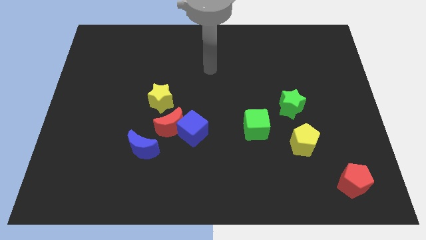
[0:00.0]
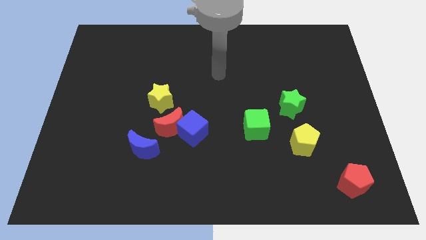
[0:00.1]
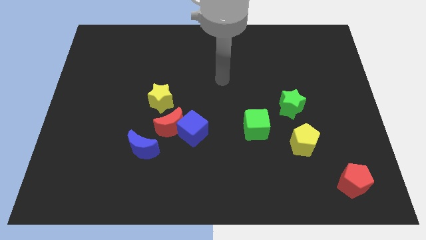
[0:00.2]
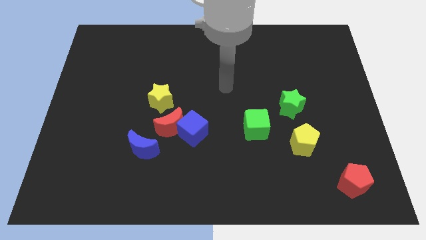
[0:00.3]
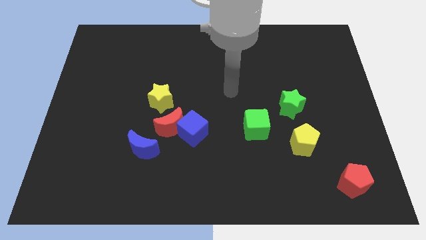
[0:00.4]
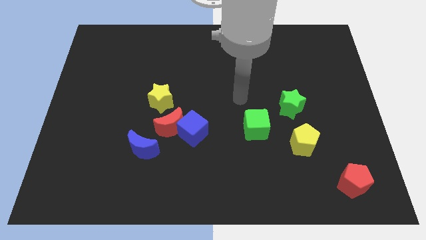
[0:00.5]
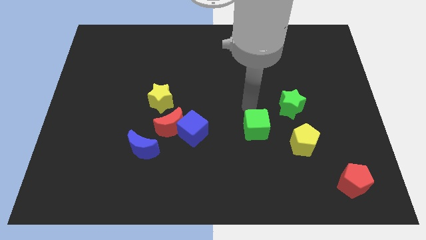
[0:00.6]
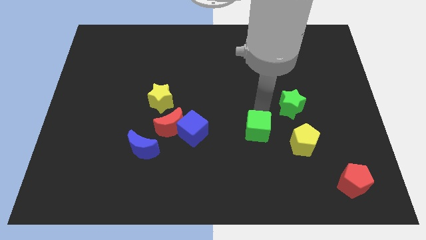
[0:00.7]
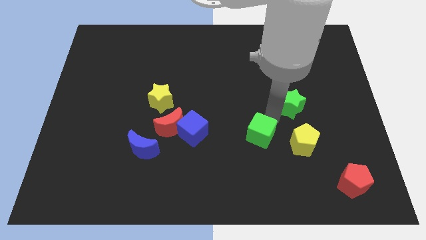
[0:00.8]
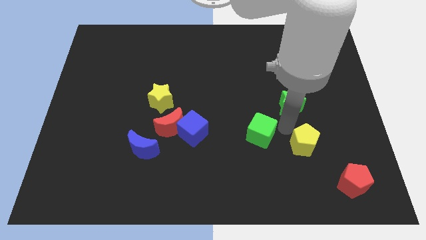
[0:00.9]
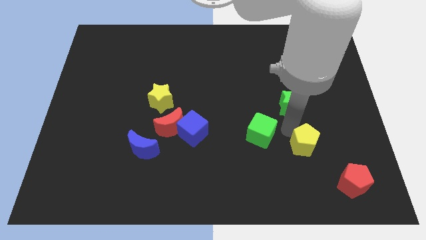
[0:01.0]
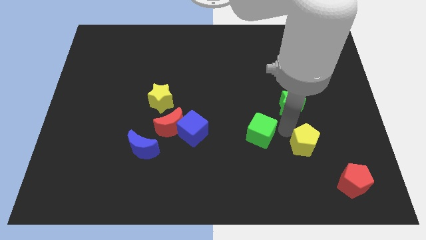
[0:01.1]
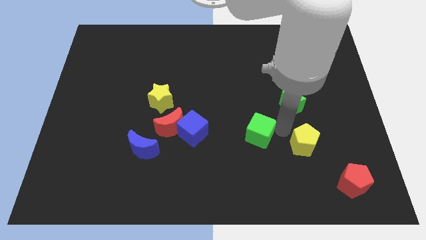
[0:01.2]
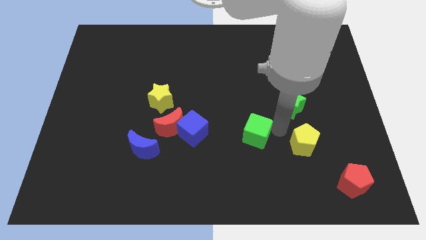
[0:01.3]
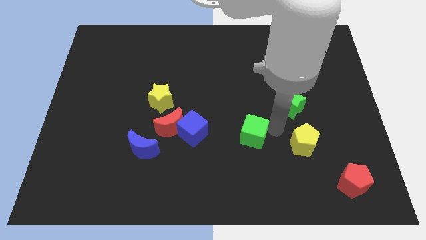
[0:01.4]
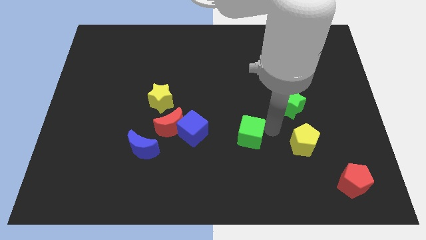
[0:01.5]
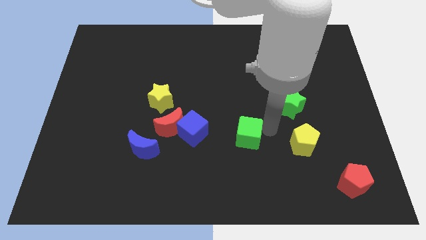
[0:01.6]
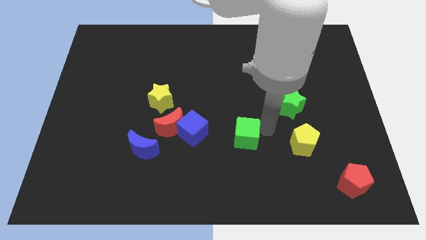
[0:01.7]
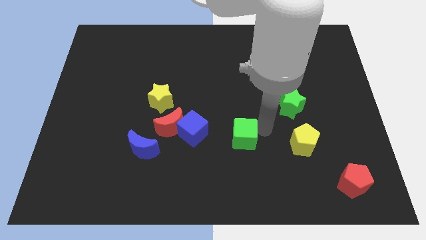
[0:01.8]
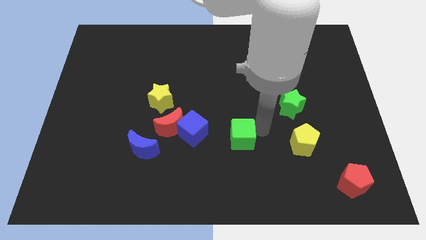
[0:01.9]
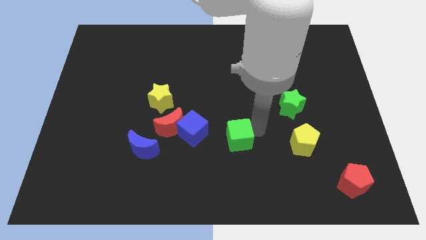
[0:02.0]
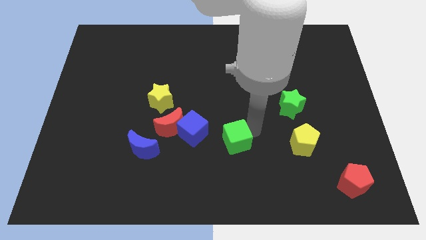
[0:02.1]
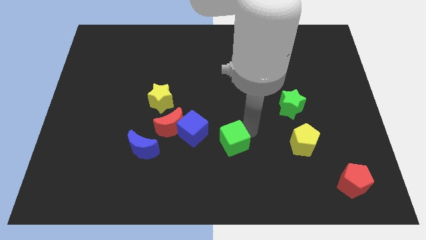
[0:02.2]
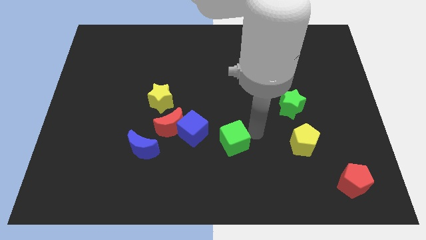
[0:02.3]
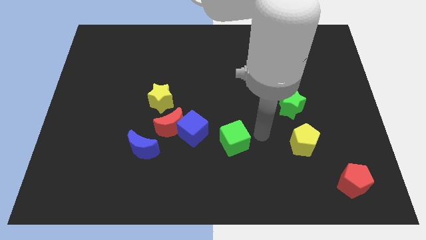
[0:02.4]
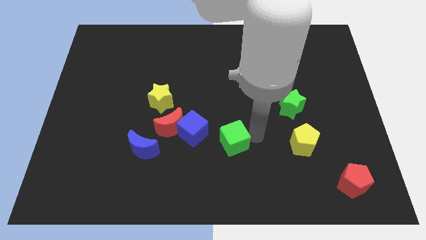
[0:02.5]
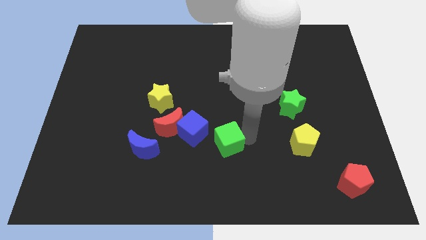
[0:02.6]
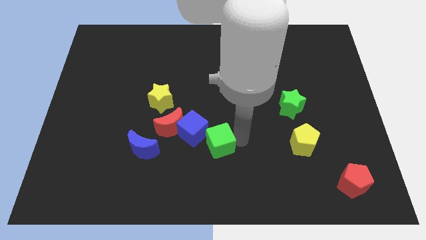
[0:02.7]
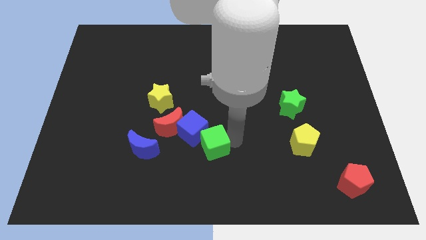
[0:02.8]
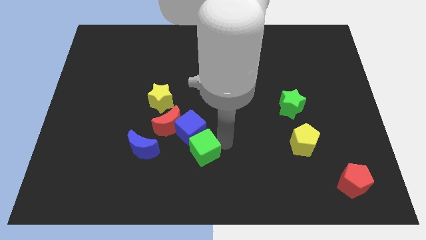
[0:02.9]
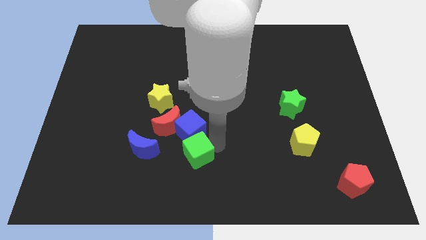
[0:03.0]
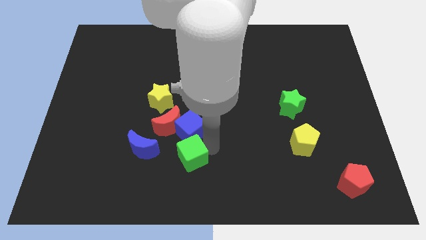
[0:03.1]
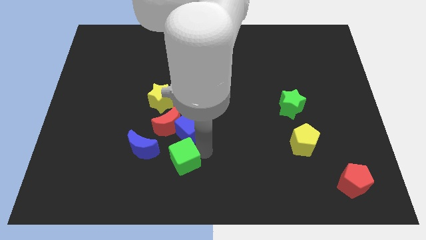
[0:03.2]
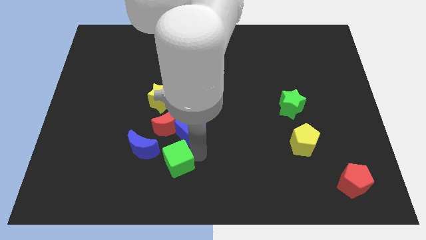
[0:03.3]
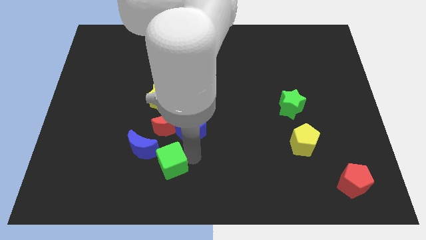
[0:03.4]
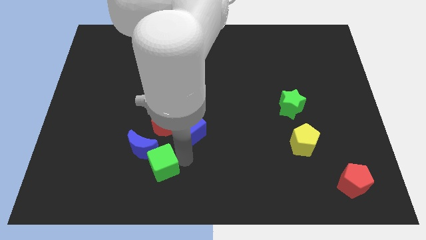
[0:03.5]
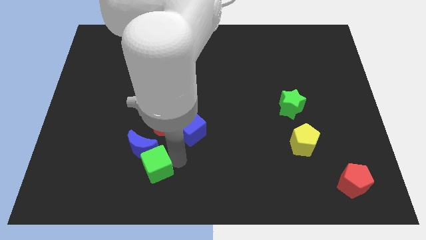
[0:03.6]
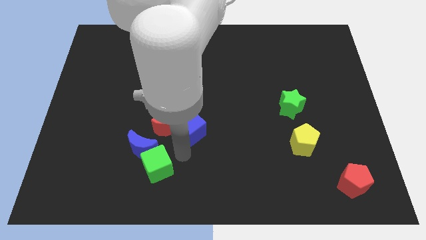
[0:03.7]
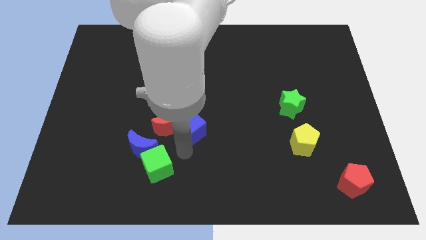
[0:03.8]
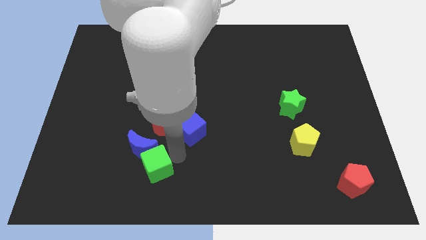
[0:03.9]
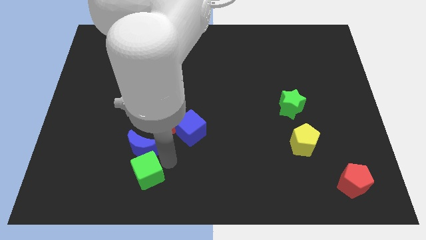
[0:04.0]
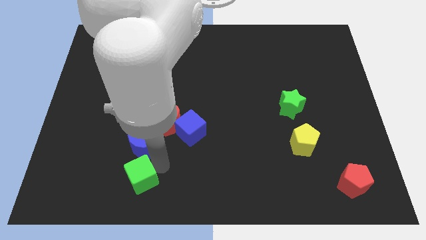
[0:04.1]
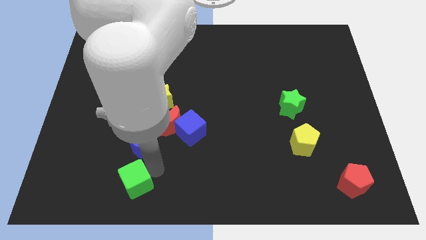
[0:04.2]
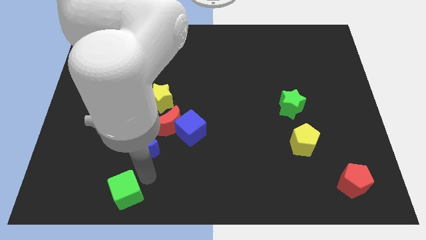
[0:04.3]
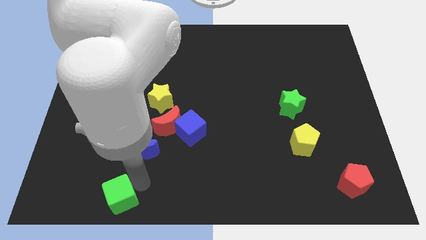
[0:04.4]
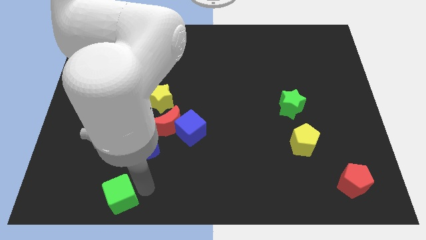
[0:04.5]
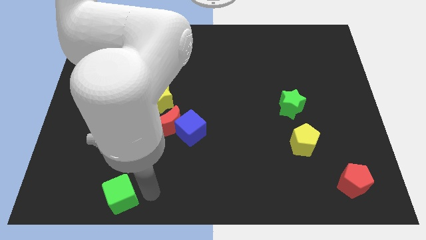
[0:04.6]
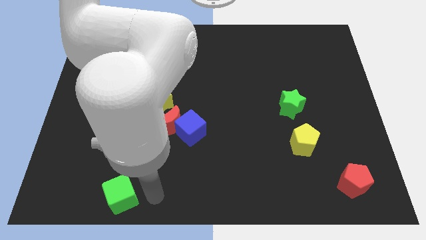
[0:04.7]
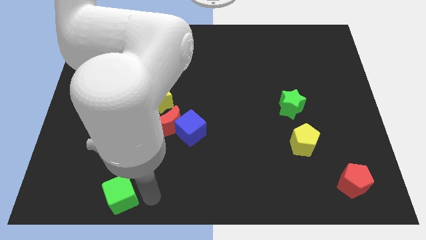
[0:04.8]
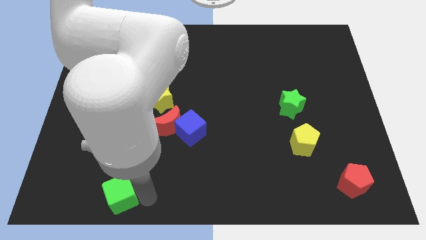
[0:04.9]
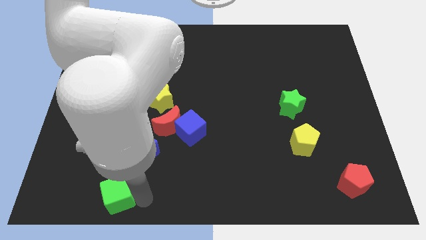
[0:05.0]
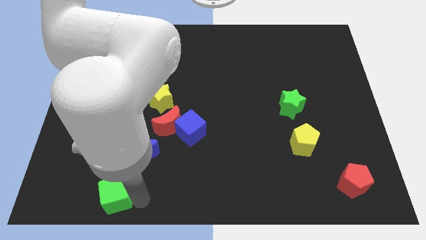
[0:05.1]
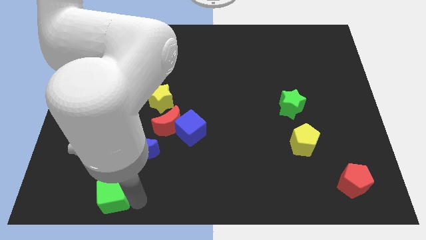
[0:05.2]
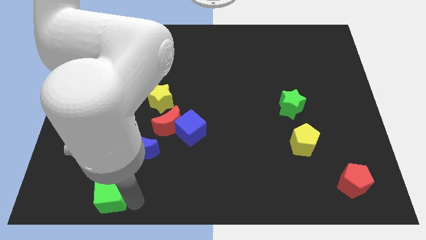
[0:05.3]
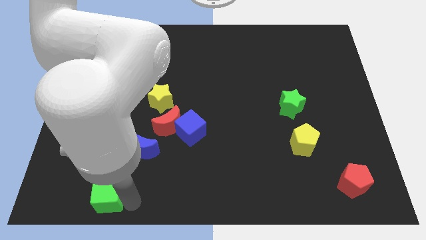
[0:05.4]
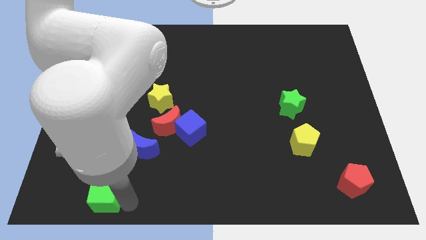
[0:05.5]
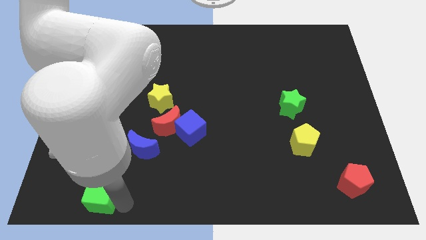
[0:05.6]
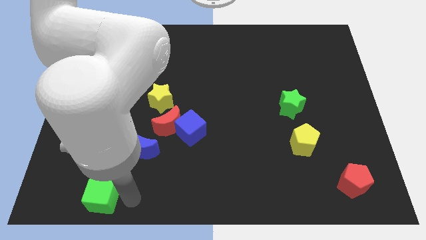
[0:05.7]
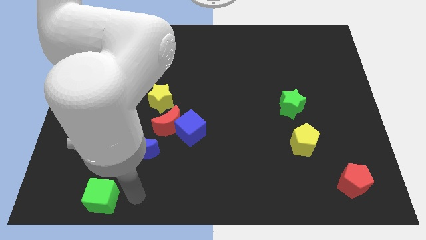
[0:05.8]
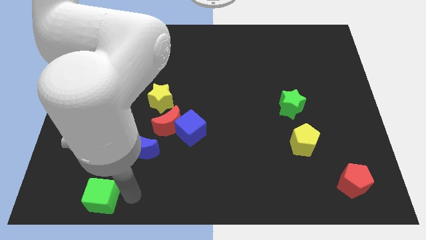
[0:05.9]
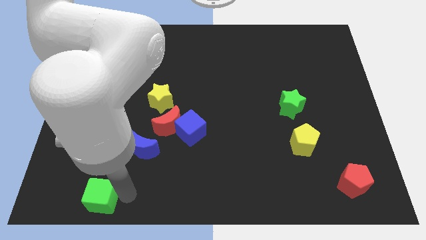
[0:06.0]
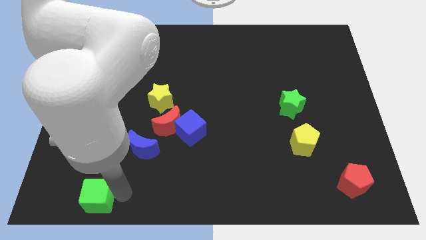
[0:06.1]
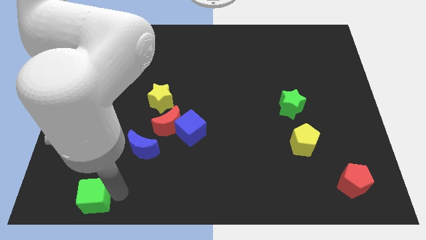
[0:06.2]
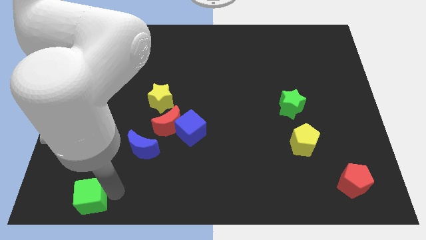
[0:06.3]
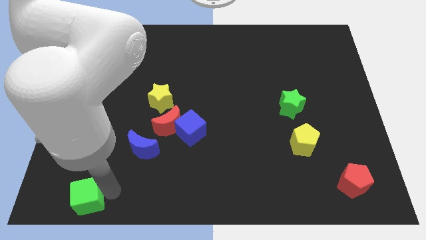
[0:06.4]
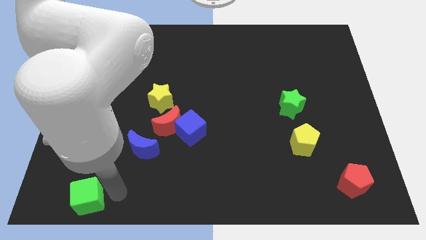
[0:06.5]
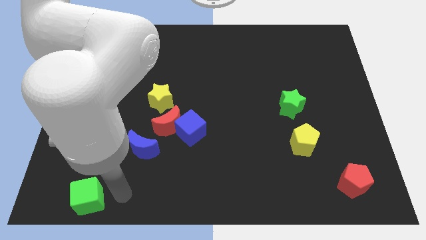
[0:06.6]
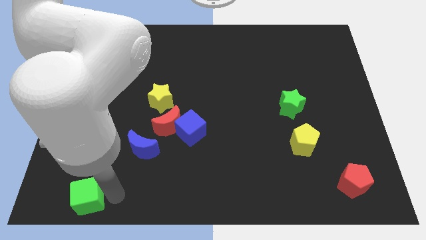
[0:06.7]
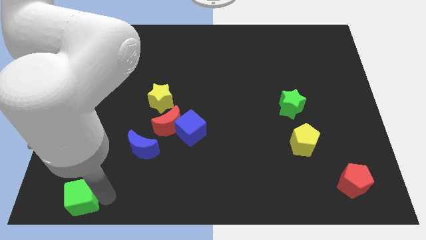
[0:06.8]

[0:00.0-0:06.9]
move the green cube to the bottom left corner
